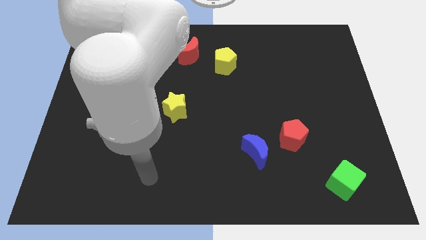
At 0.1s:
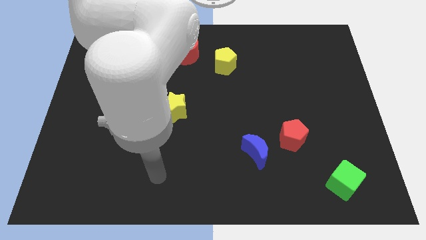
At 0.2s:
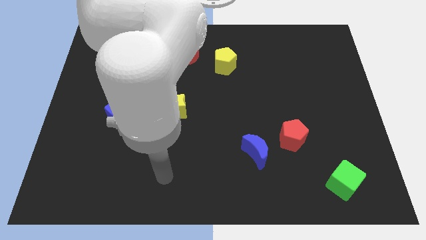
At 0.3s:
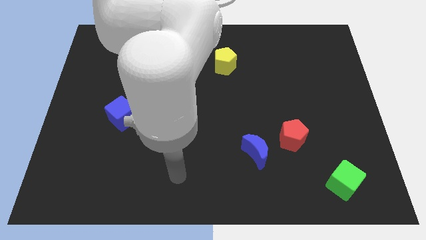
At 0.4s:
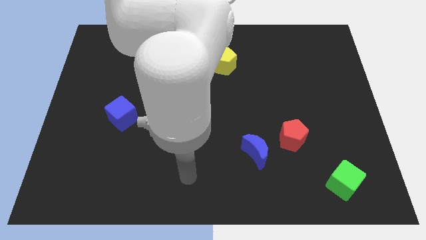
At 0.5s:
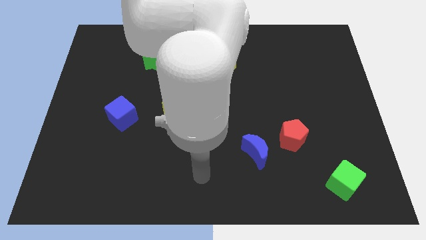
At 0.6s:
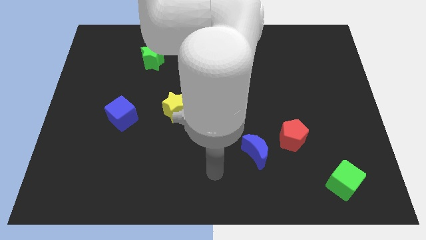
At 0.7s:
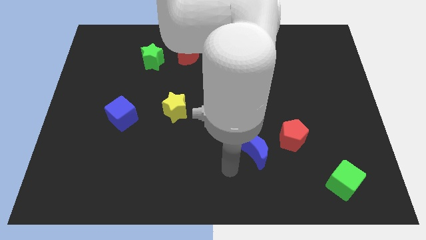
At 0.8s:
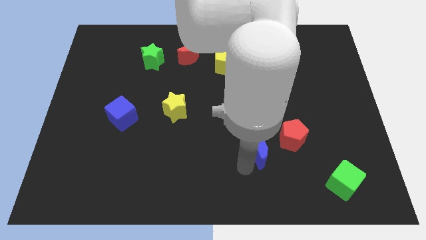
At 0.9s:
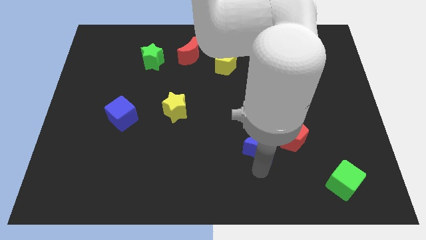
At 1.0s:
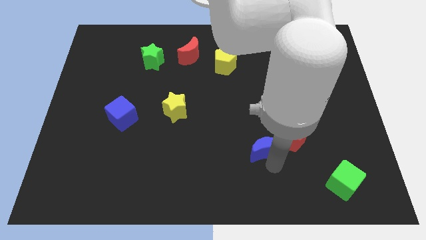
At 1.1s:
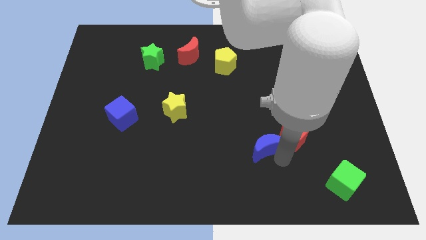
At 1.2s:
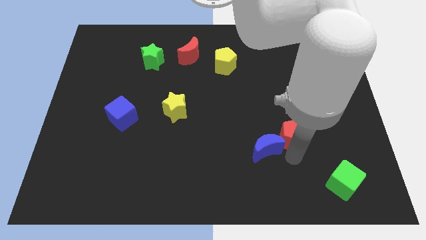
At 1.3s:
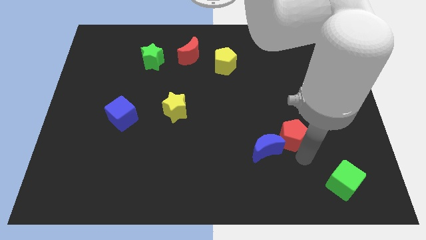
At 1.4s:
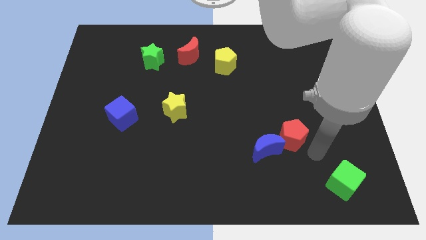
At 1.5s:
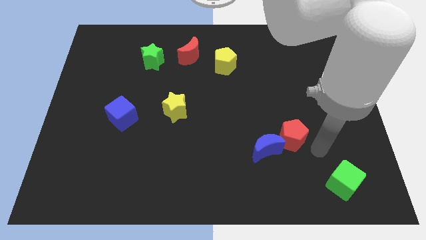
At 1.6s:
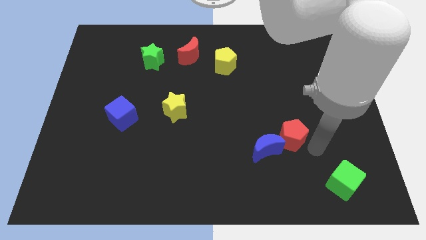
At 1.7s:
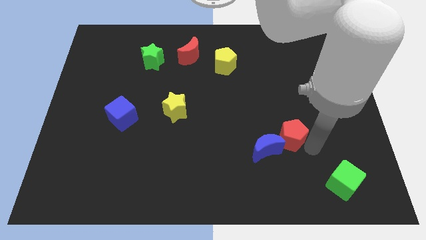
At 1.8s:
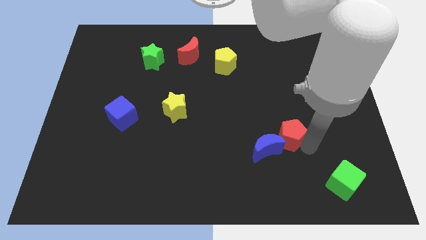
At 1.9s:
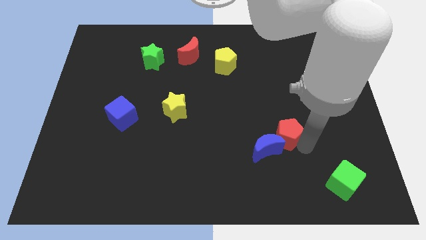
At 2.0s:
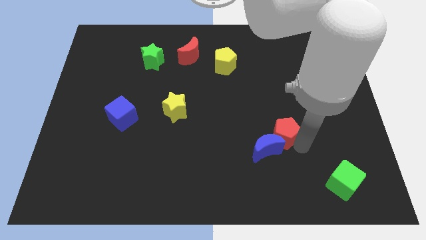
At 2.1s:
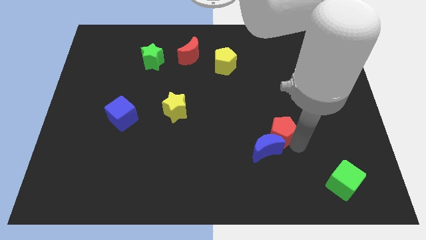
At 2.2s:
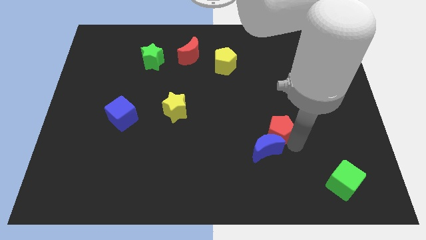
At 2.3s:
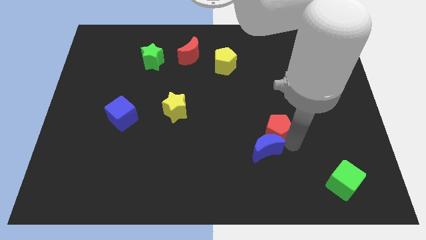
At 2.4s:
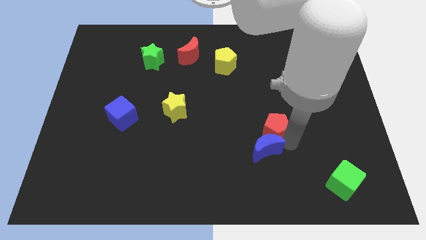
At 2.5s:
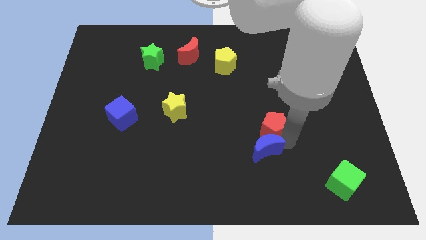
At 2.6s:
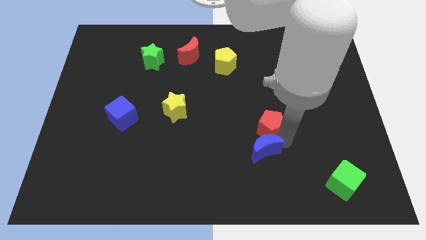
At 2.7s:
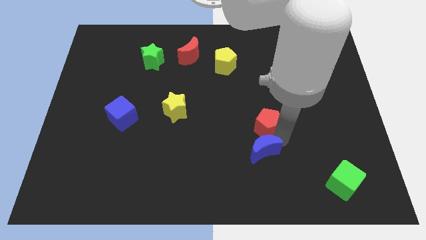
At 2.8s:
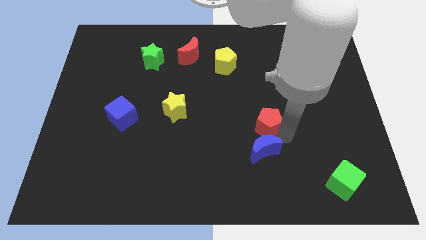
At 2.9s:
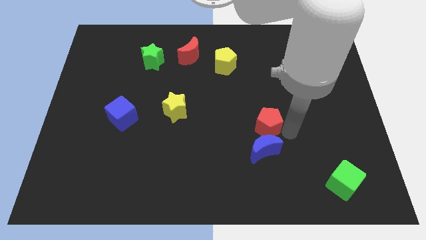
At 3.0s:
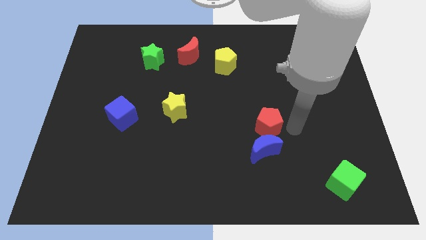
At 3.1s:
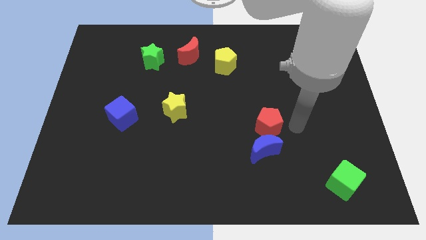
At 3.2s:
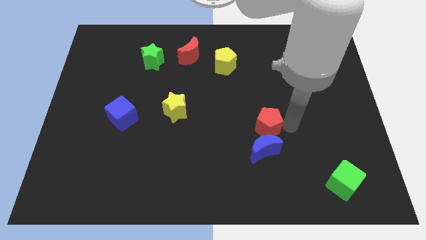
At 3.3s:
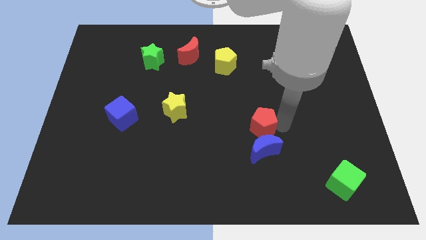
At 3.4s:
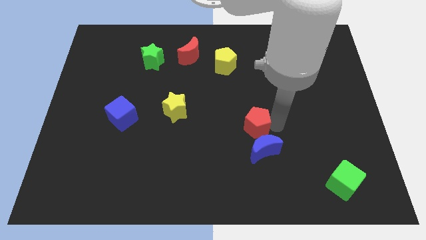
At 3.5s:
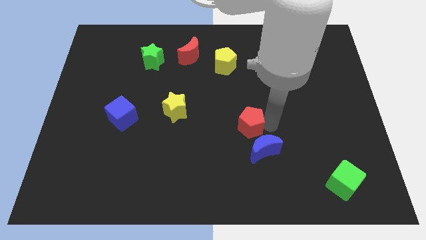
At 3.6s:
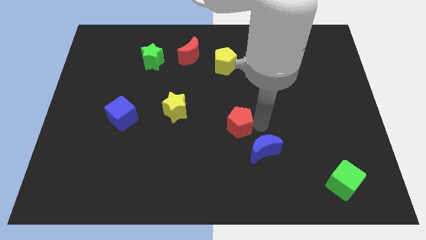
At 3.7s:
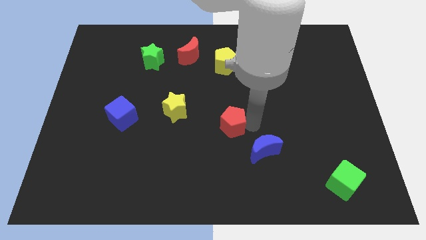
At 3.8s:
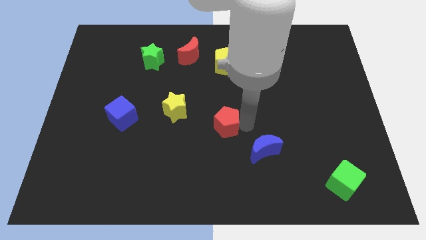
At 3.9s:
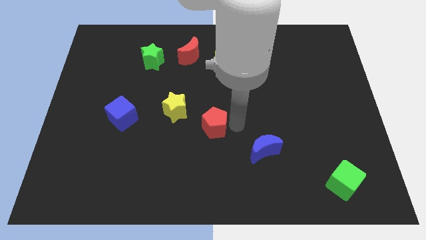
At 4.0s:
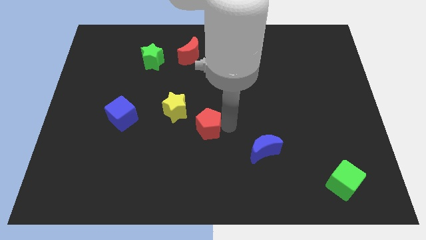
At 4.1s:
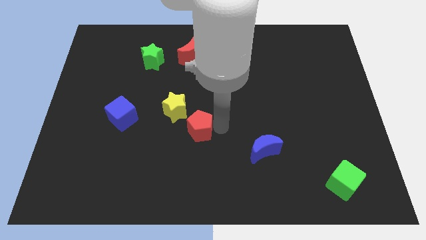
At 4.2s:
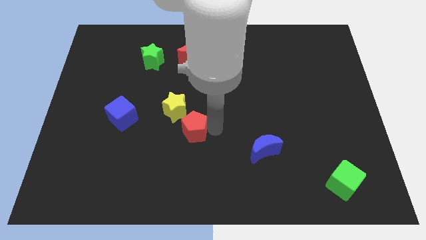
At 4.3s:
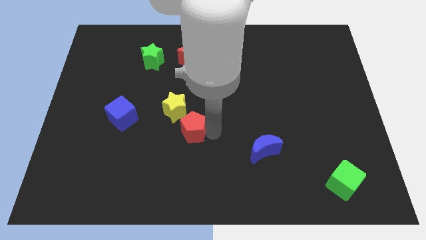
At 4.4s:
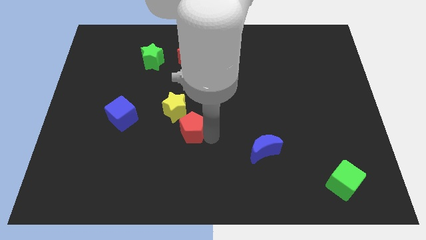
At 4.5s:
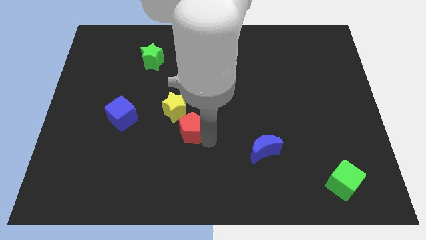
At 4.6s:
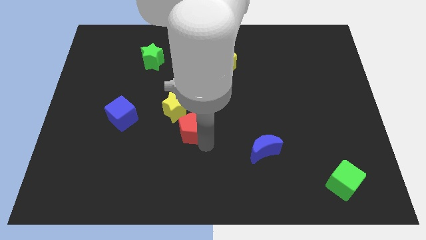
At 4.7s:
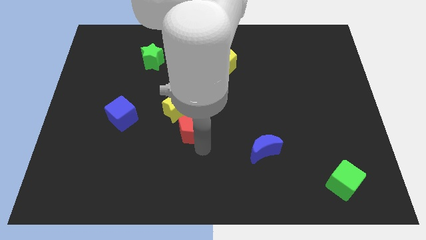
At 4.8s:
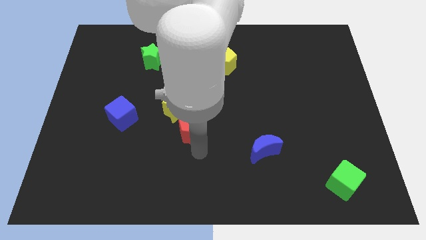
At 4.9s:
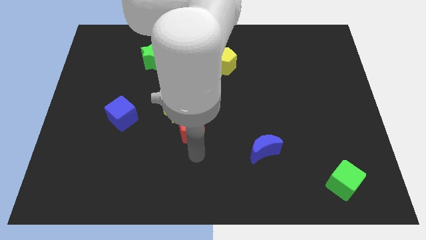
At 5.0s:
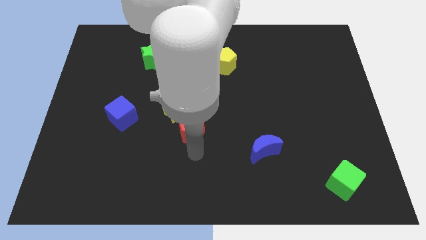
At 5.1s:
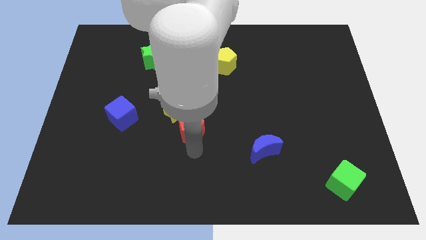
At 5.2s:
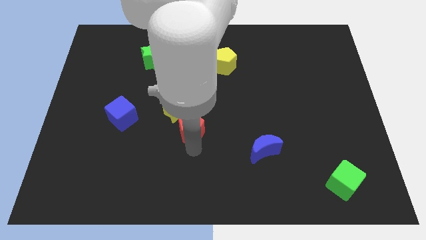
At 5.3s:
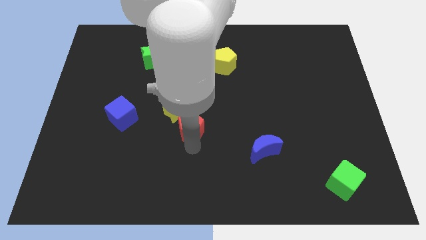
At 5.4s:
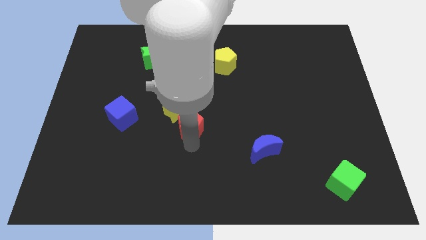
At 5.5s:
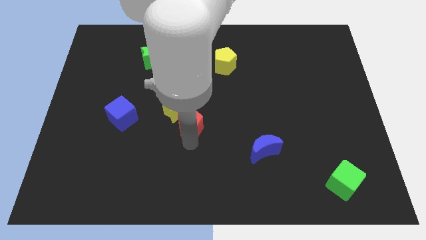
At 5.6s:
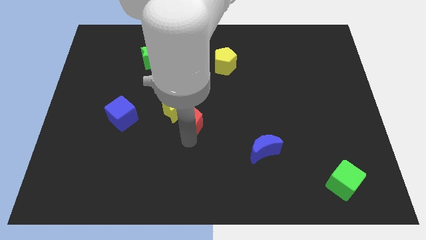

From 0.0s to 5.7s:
slide the red pentagon just right of the blue cube

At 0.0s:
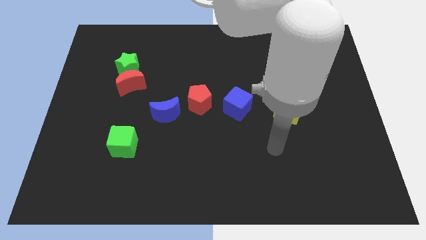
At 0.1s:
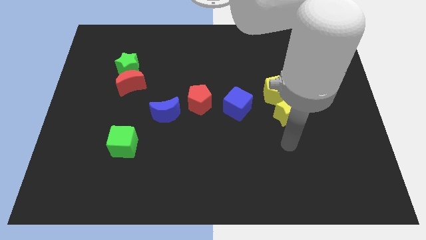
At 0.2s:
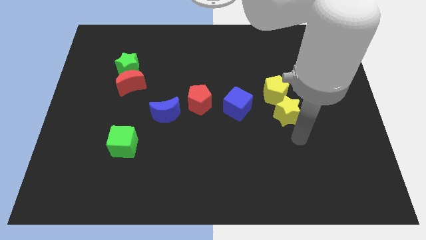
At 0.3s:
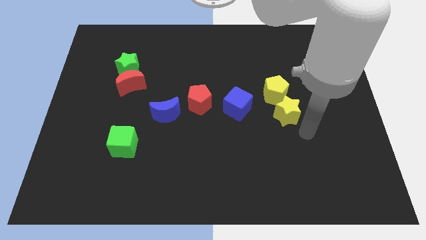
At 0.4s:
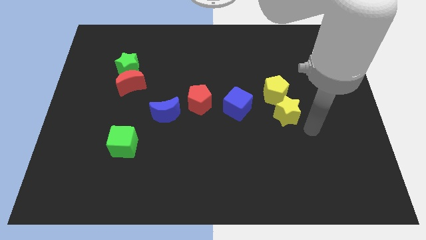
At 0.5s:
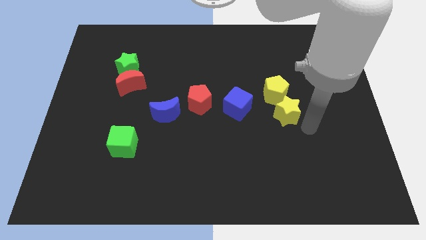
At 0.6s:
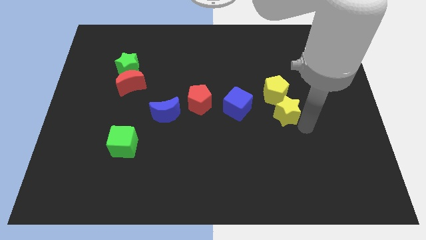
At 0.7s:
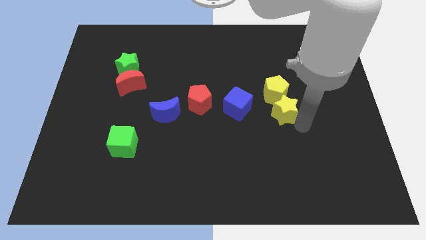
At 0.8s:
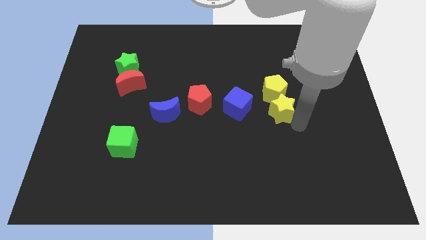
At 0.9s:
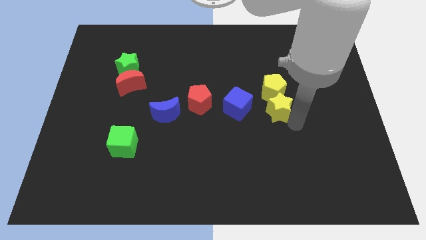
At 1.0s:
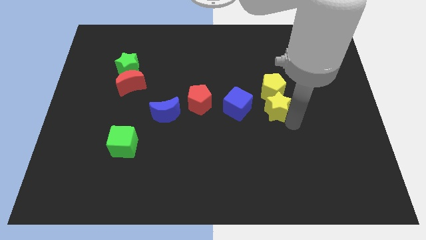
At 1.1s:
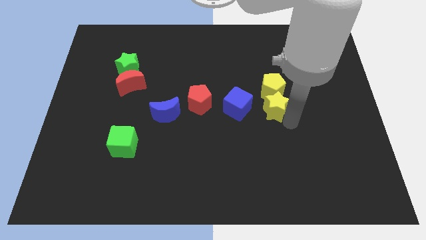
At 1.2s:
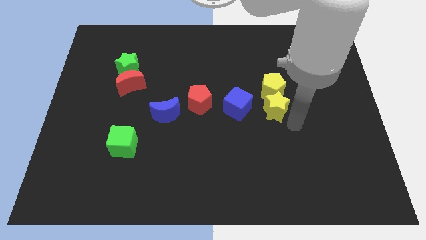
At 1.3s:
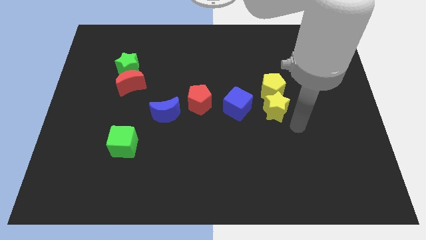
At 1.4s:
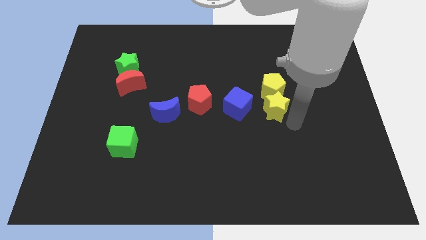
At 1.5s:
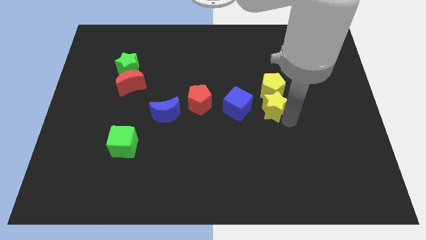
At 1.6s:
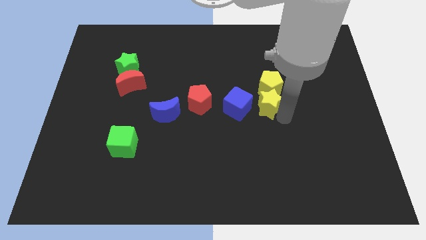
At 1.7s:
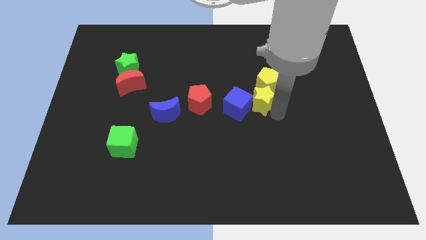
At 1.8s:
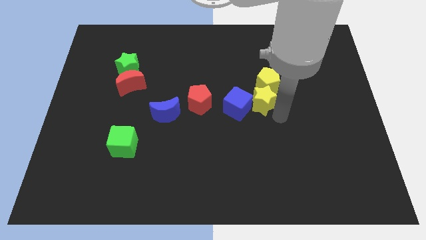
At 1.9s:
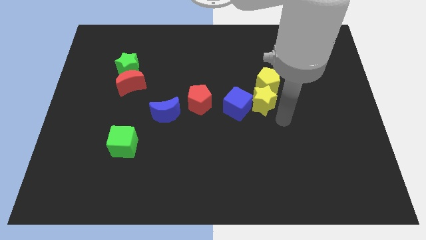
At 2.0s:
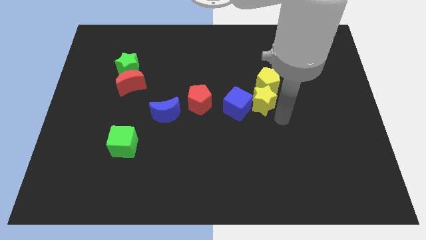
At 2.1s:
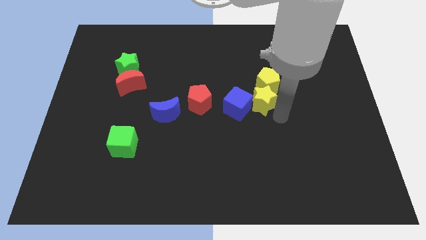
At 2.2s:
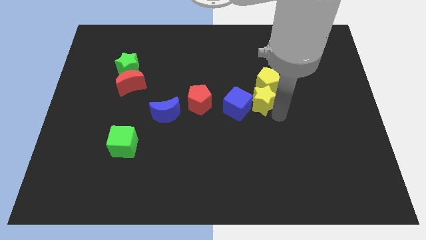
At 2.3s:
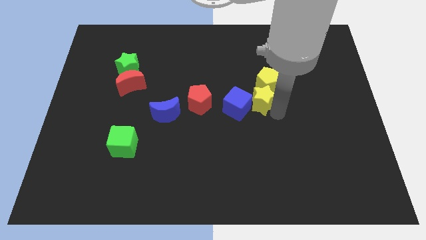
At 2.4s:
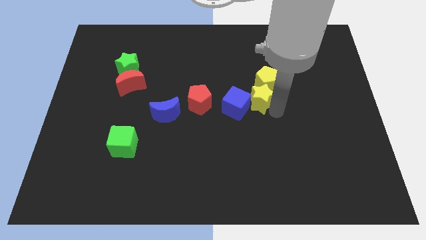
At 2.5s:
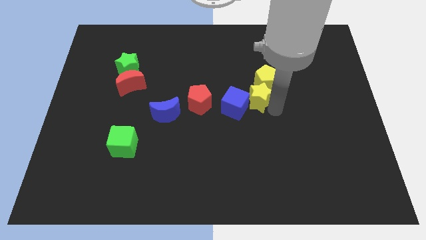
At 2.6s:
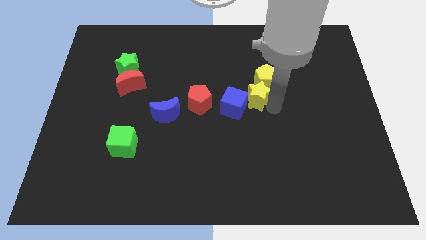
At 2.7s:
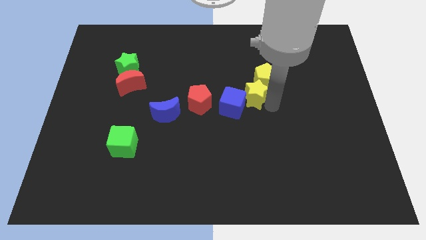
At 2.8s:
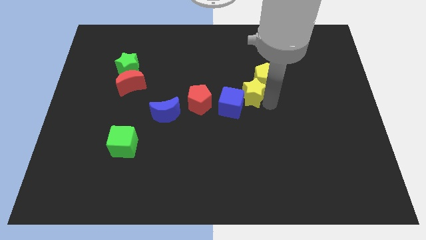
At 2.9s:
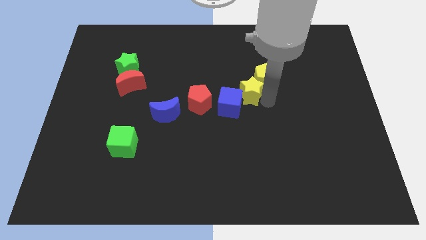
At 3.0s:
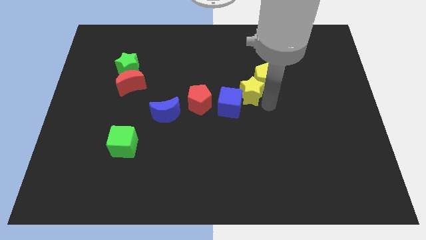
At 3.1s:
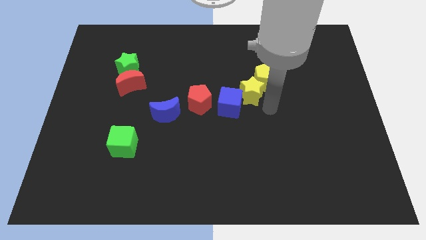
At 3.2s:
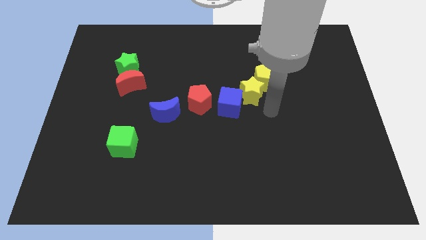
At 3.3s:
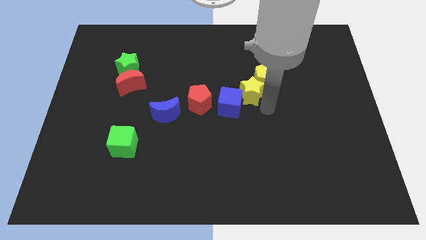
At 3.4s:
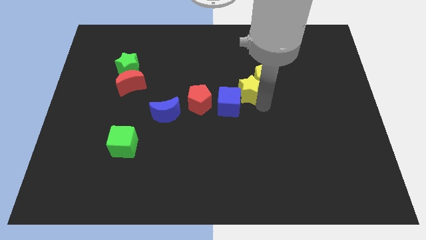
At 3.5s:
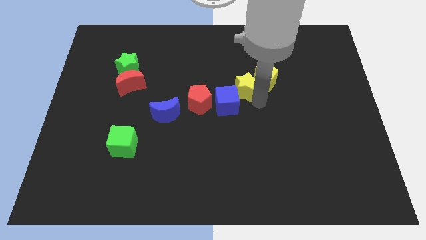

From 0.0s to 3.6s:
slide the yellow star to the top side of the blue cube
